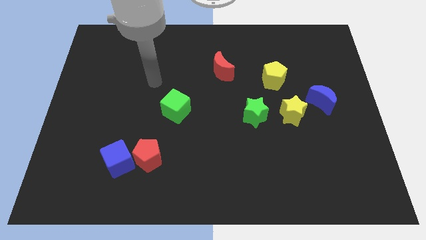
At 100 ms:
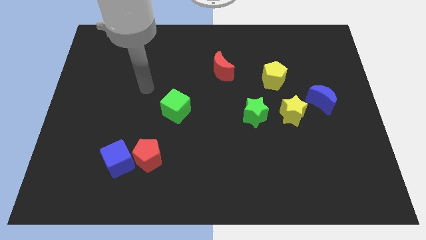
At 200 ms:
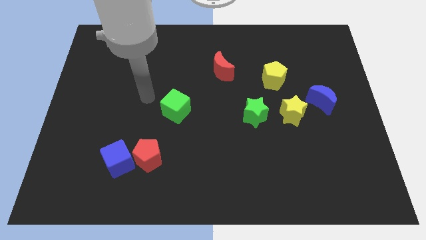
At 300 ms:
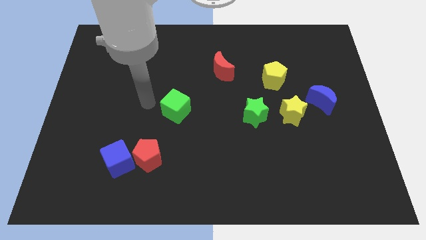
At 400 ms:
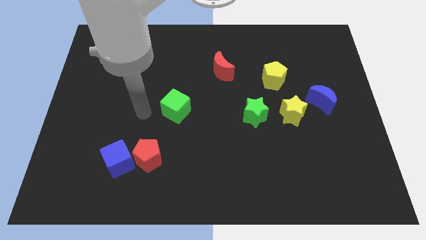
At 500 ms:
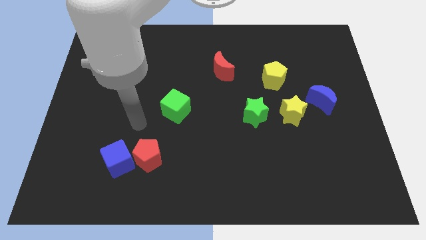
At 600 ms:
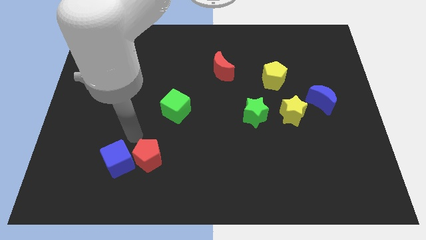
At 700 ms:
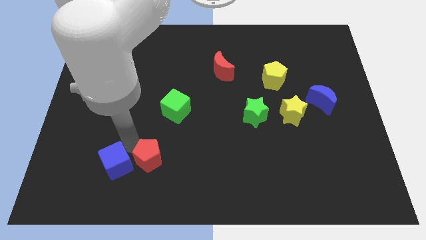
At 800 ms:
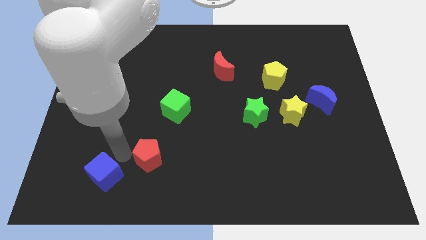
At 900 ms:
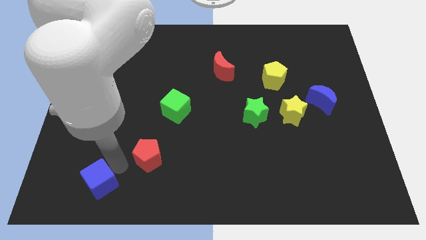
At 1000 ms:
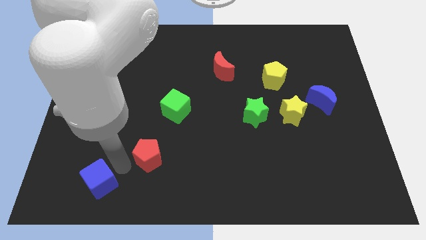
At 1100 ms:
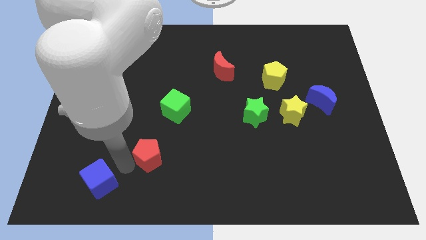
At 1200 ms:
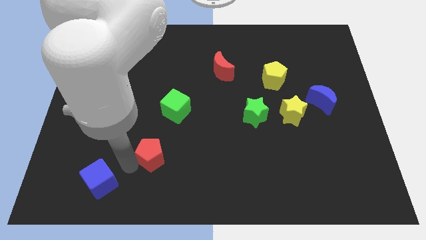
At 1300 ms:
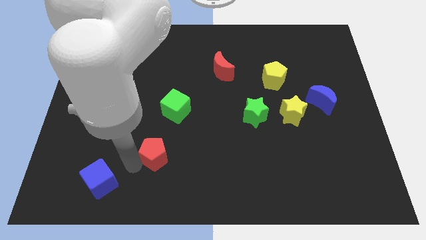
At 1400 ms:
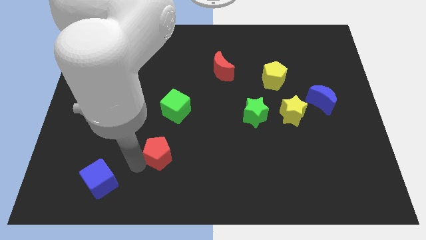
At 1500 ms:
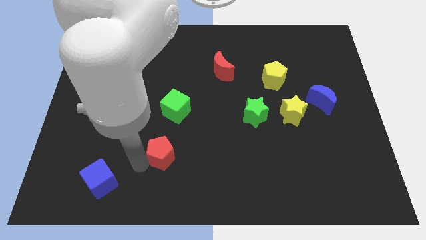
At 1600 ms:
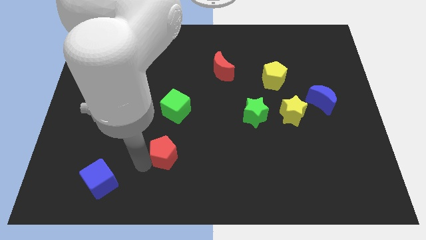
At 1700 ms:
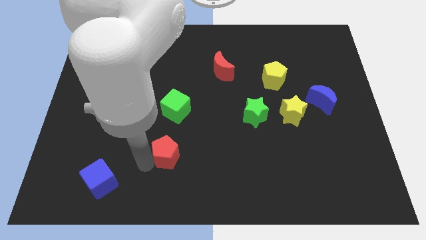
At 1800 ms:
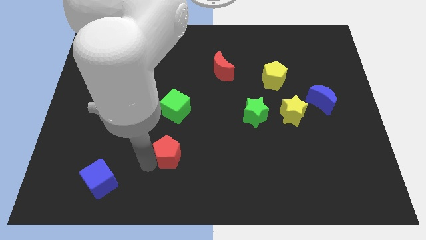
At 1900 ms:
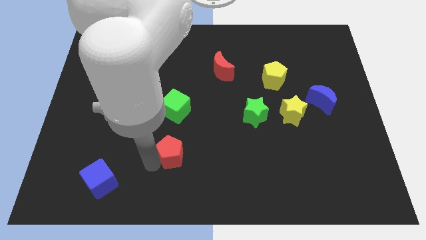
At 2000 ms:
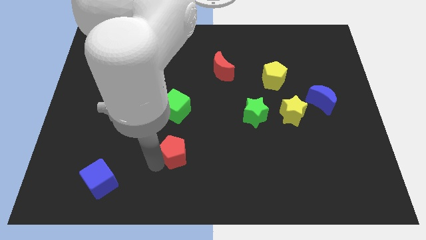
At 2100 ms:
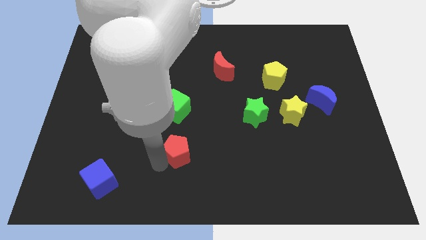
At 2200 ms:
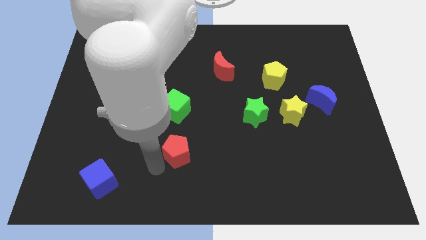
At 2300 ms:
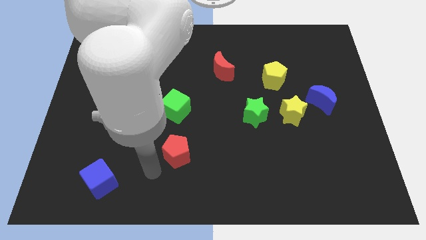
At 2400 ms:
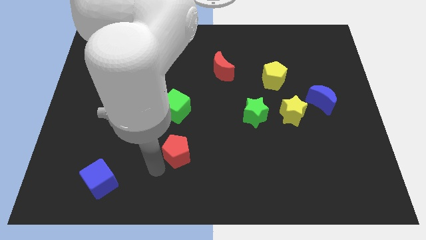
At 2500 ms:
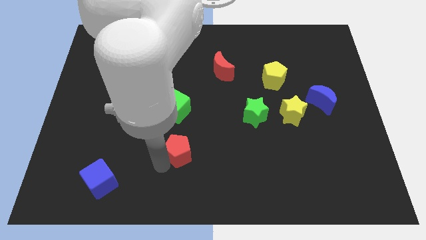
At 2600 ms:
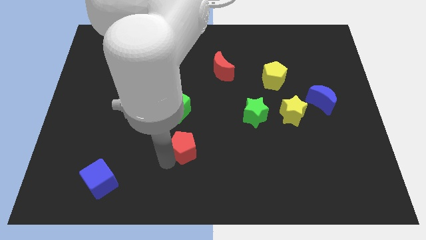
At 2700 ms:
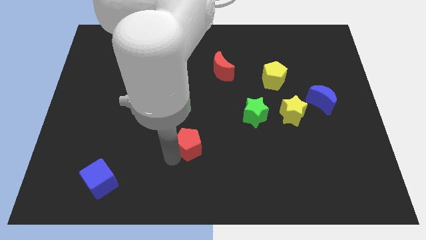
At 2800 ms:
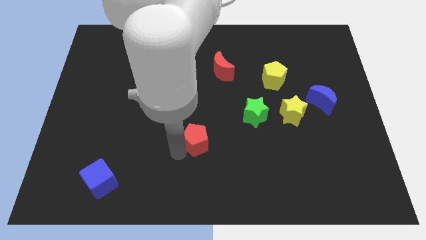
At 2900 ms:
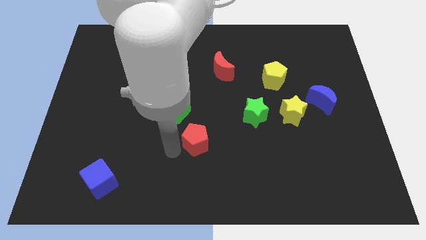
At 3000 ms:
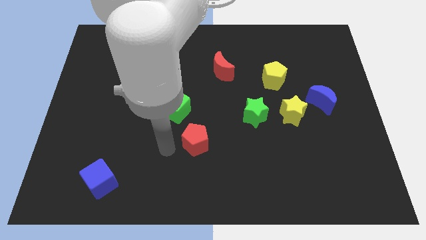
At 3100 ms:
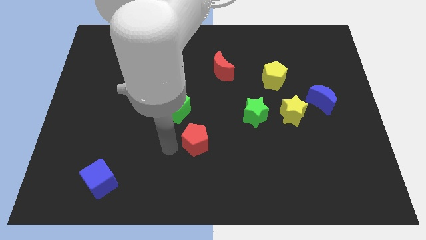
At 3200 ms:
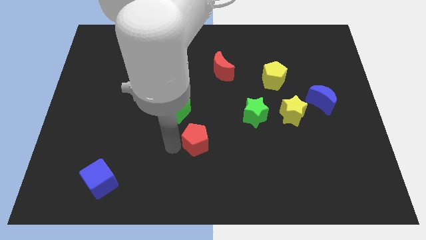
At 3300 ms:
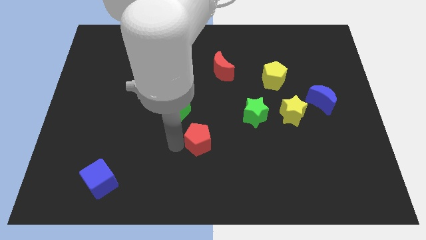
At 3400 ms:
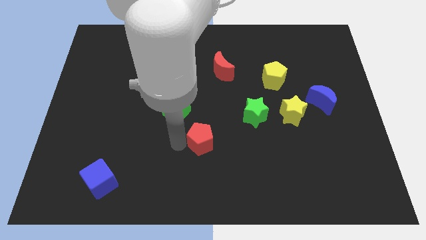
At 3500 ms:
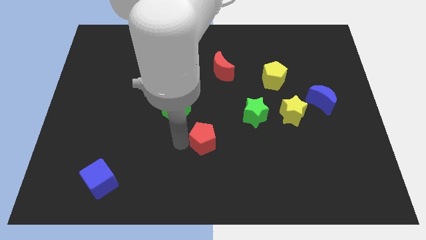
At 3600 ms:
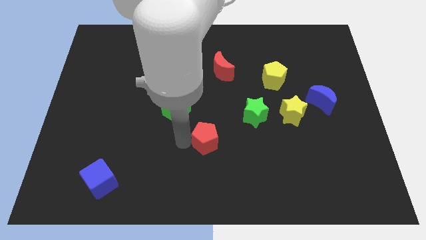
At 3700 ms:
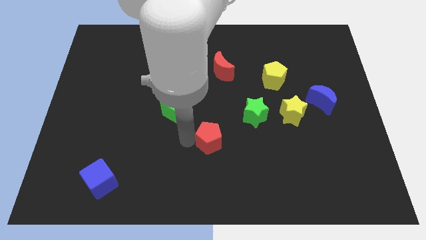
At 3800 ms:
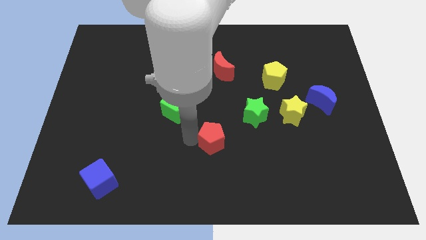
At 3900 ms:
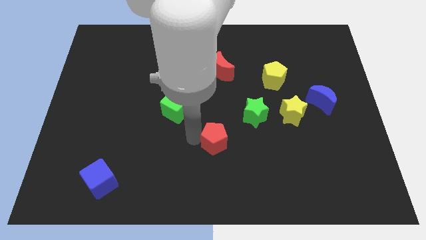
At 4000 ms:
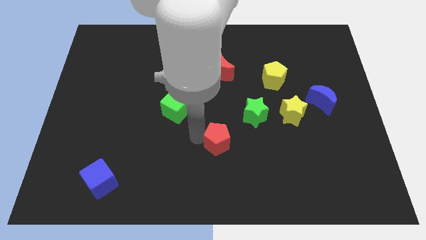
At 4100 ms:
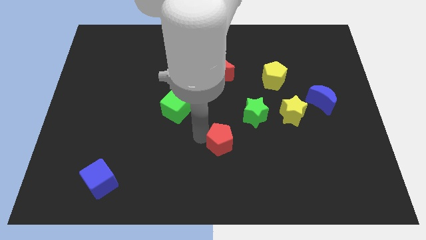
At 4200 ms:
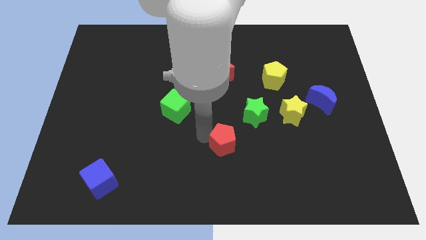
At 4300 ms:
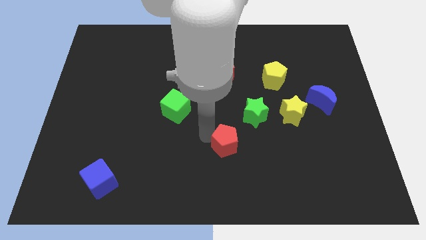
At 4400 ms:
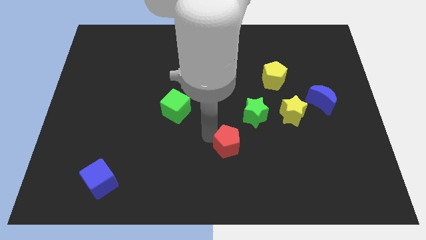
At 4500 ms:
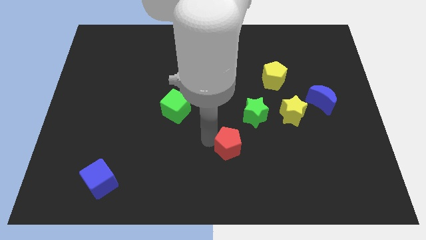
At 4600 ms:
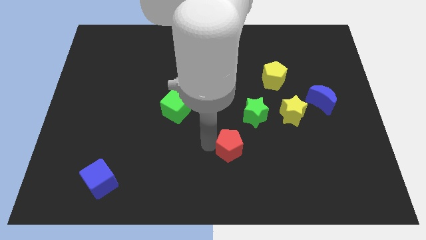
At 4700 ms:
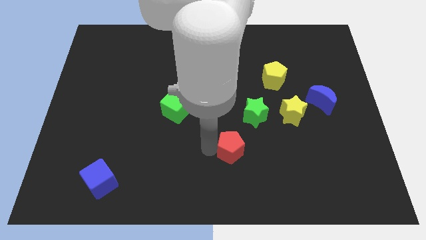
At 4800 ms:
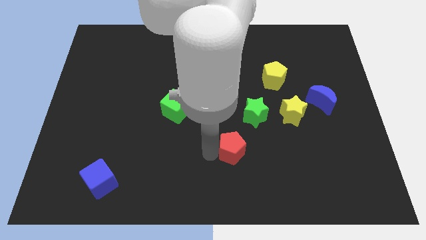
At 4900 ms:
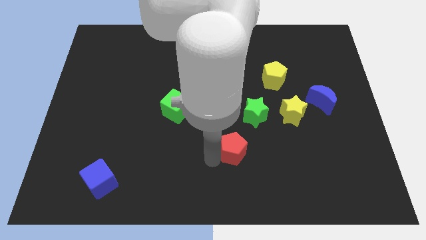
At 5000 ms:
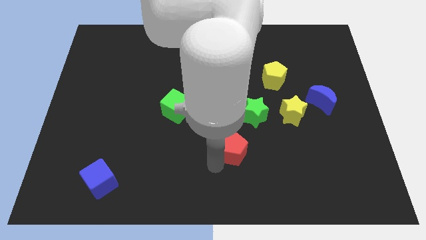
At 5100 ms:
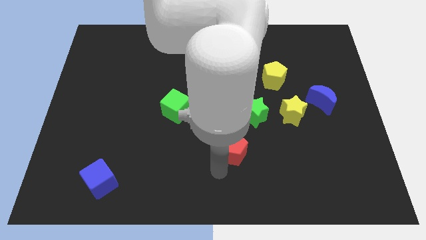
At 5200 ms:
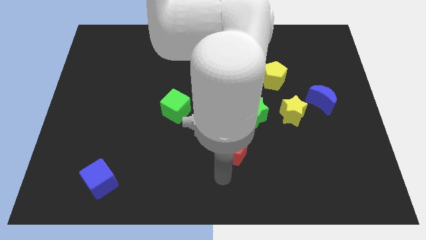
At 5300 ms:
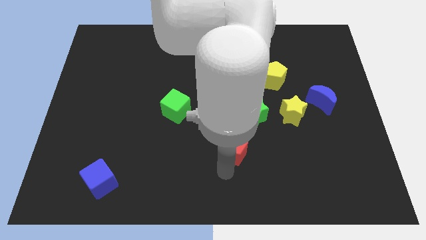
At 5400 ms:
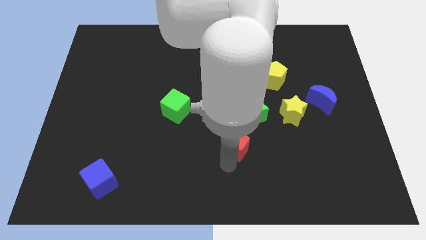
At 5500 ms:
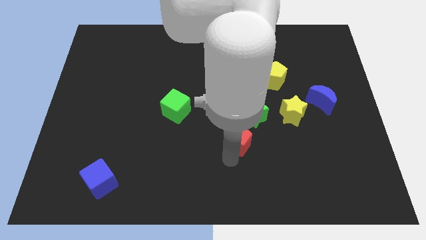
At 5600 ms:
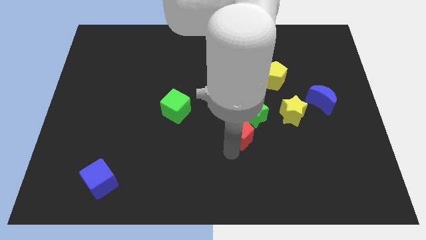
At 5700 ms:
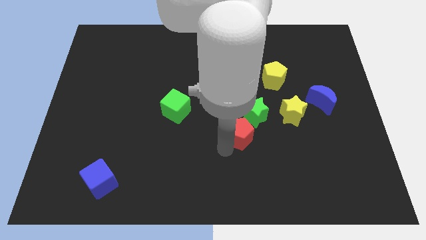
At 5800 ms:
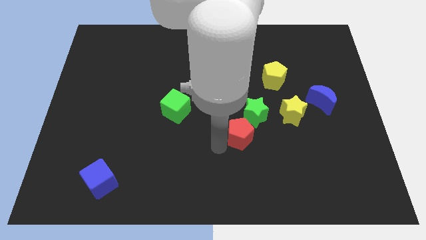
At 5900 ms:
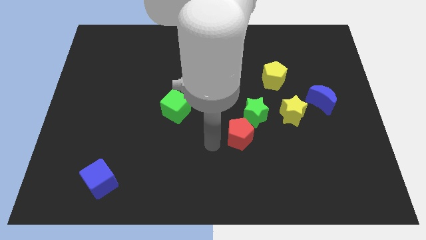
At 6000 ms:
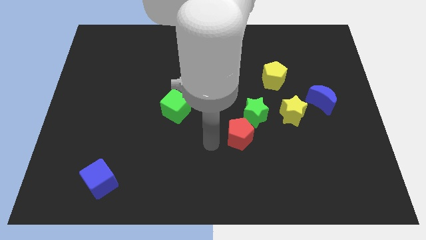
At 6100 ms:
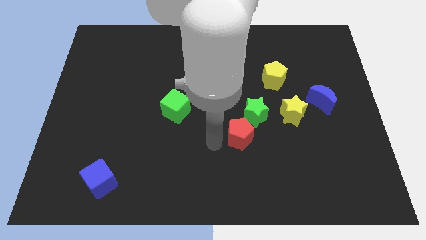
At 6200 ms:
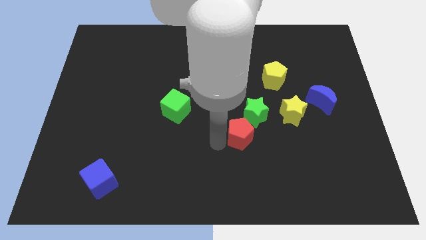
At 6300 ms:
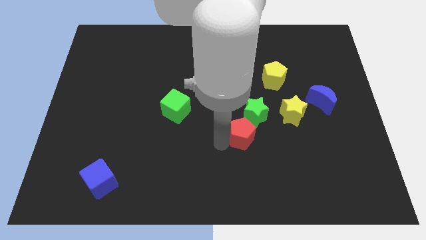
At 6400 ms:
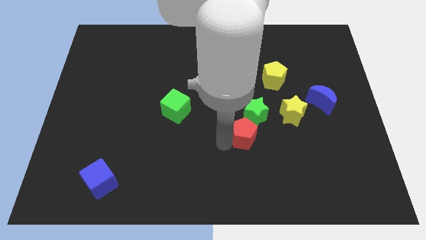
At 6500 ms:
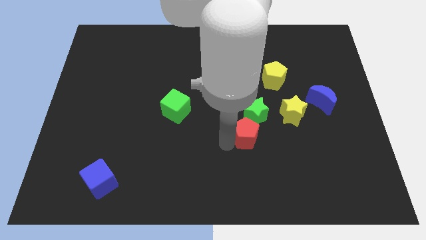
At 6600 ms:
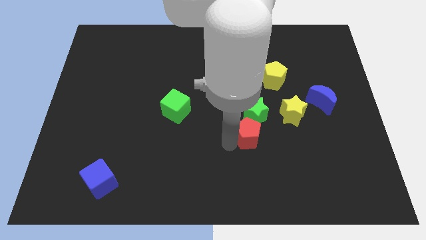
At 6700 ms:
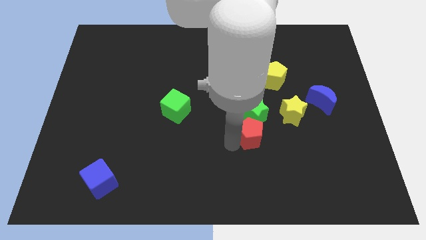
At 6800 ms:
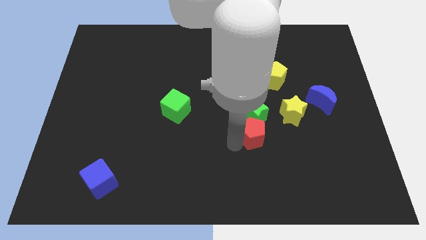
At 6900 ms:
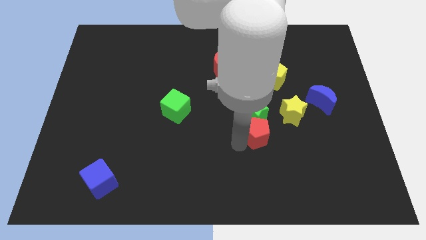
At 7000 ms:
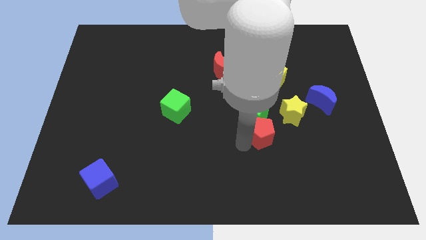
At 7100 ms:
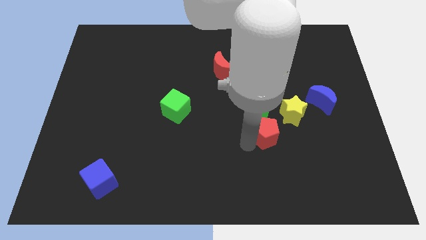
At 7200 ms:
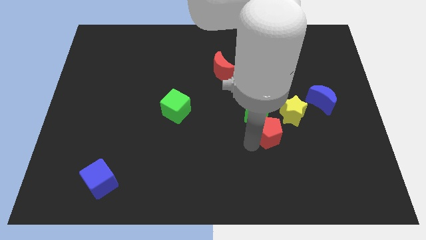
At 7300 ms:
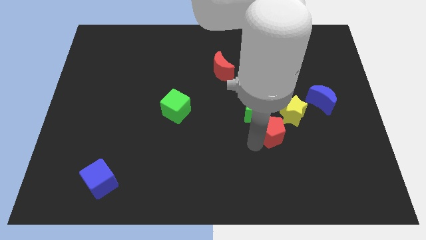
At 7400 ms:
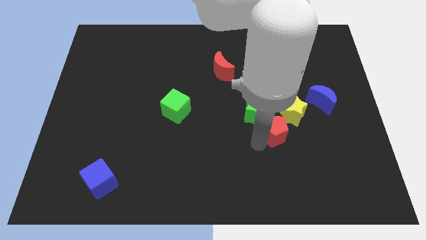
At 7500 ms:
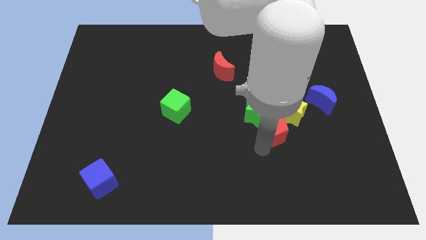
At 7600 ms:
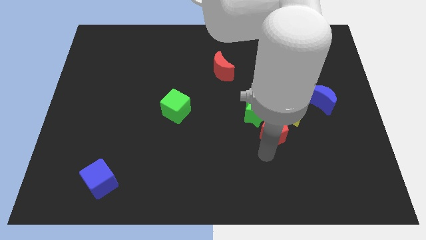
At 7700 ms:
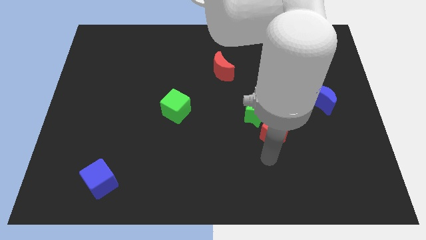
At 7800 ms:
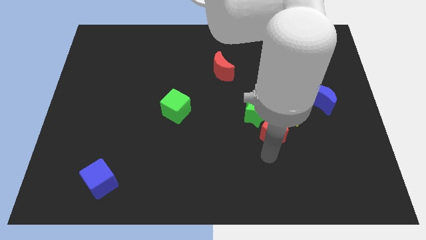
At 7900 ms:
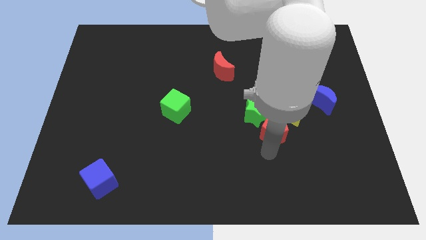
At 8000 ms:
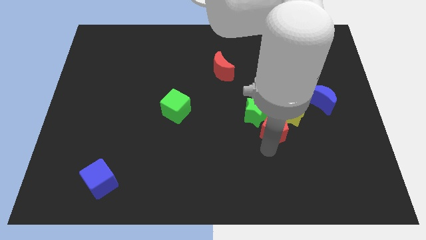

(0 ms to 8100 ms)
put the red pentagon below the yellow pentagon
